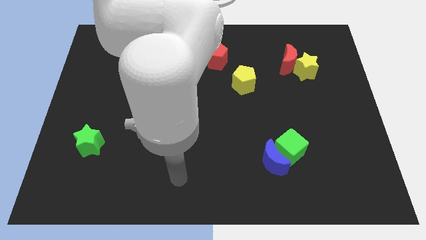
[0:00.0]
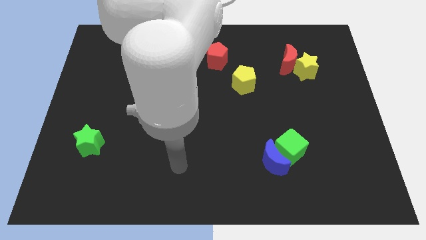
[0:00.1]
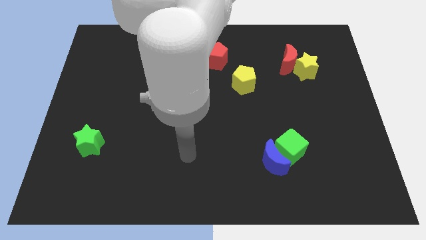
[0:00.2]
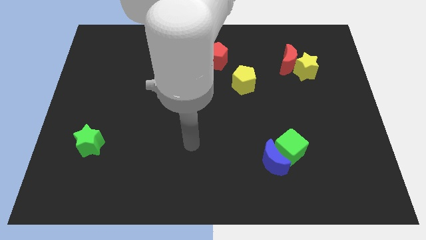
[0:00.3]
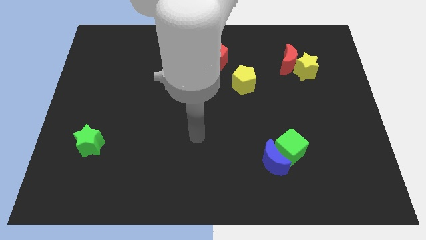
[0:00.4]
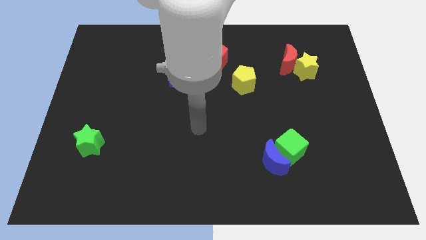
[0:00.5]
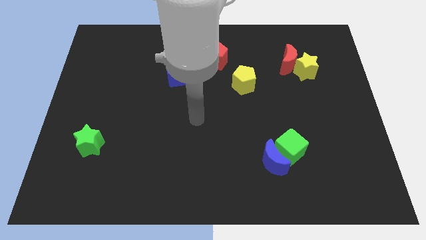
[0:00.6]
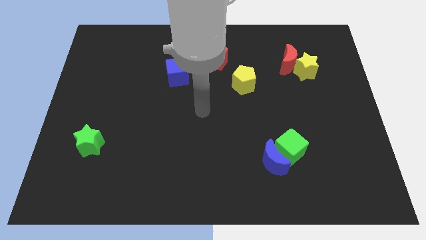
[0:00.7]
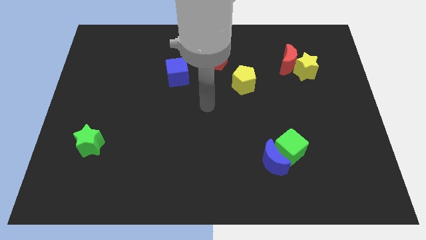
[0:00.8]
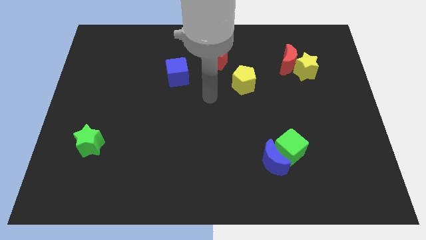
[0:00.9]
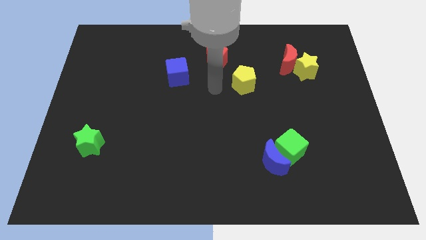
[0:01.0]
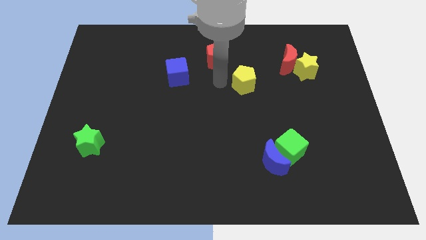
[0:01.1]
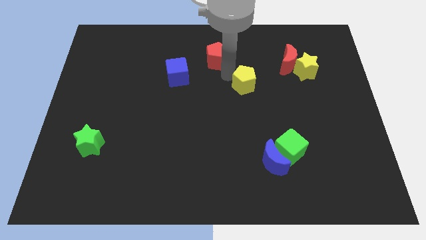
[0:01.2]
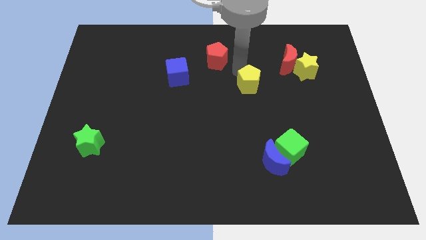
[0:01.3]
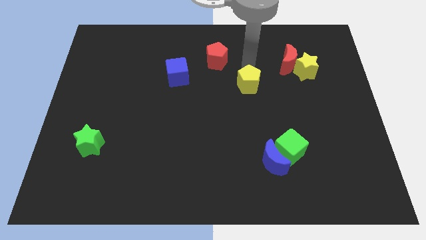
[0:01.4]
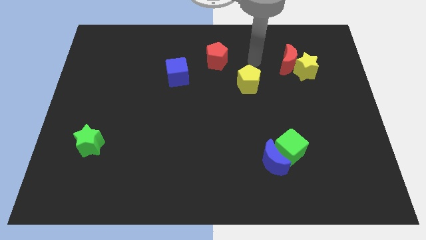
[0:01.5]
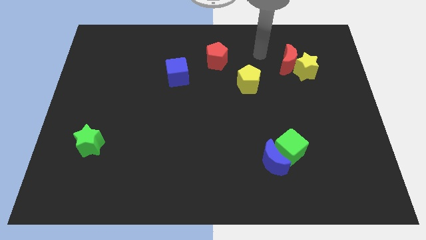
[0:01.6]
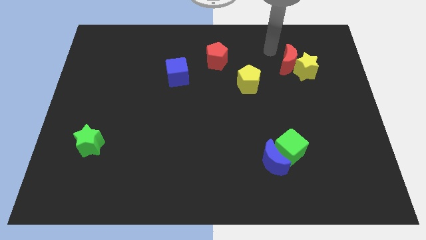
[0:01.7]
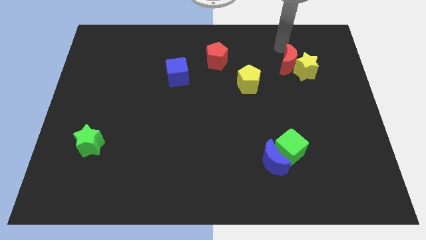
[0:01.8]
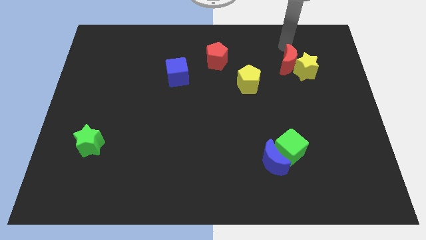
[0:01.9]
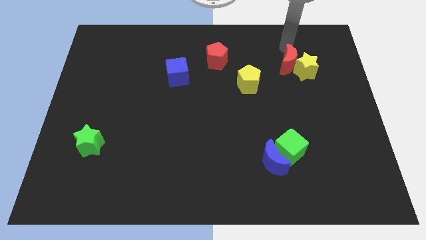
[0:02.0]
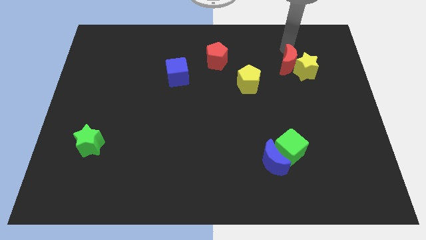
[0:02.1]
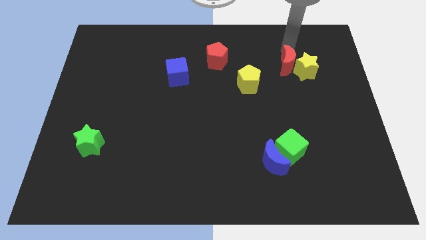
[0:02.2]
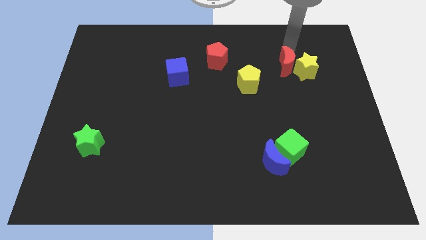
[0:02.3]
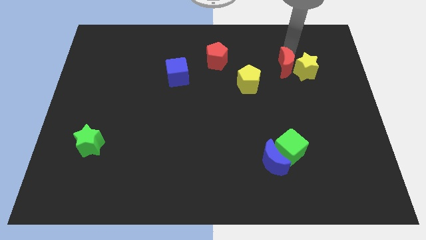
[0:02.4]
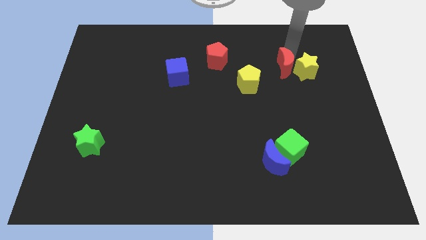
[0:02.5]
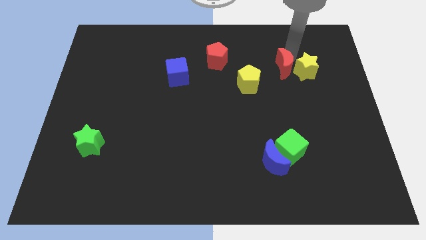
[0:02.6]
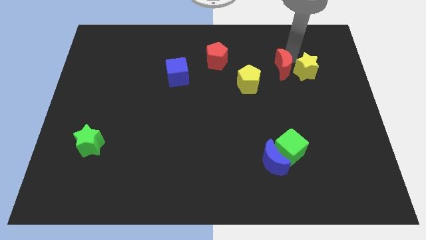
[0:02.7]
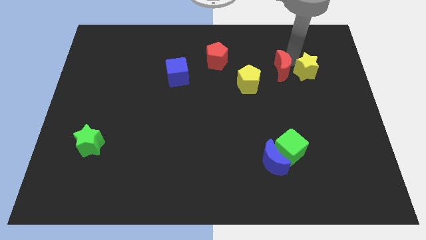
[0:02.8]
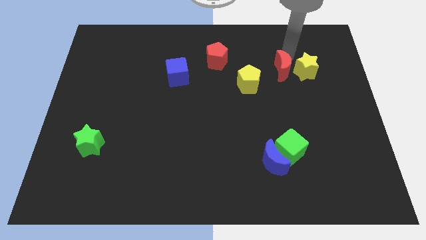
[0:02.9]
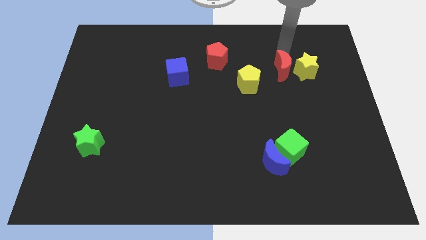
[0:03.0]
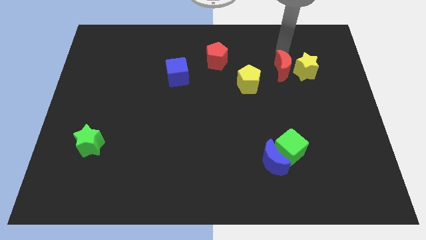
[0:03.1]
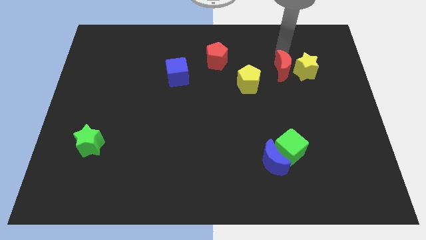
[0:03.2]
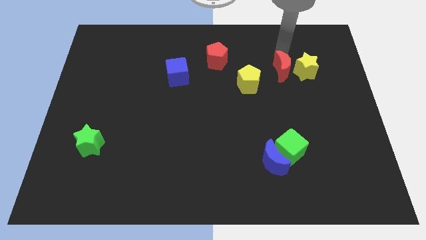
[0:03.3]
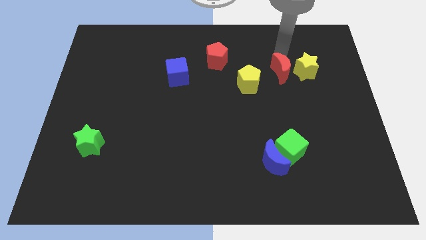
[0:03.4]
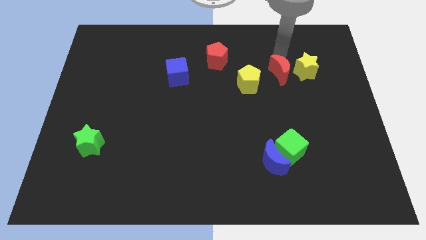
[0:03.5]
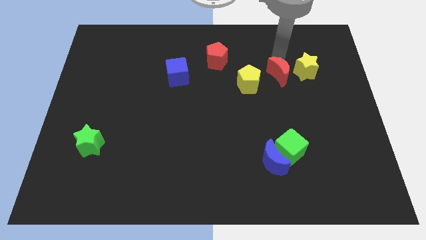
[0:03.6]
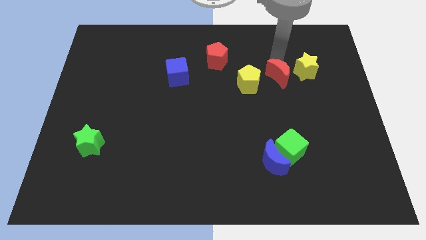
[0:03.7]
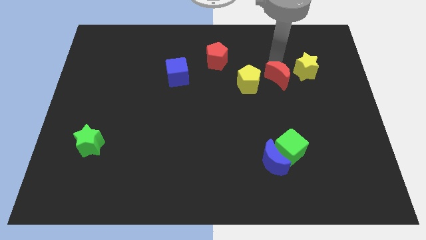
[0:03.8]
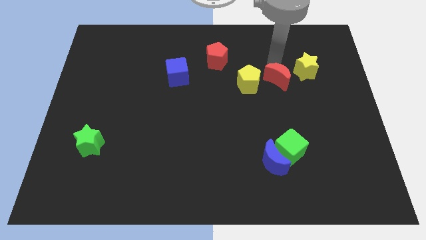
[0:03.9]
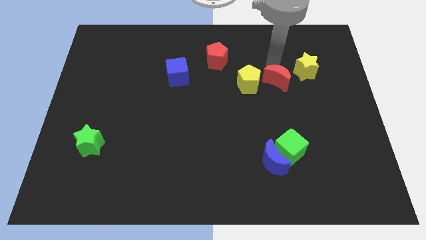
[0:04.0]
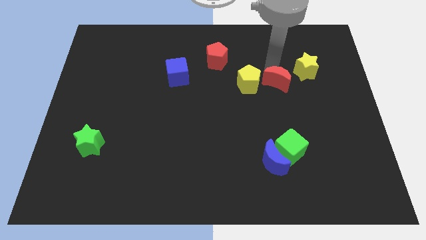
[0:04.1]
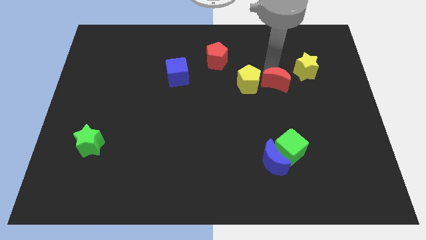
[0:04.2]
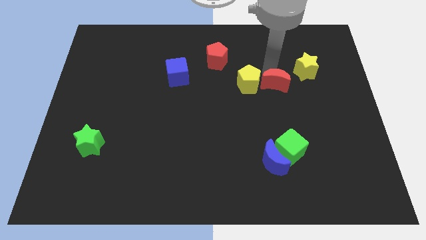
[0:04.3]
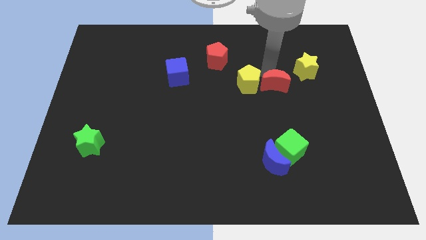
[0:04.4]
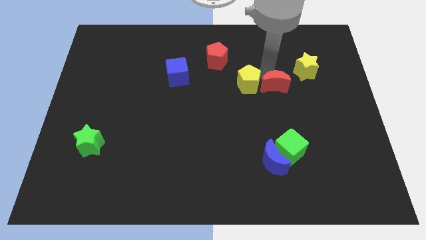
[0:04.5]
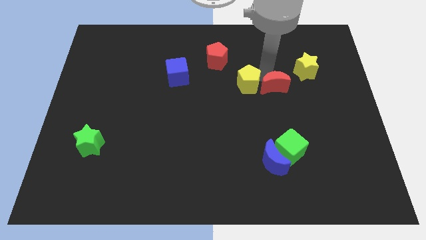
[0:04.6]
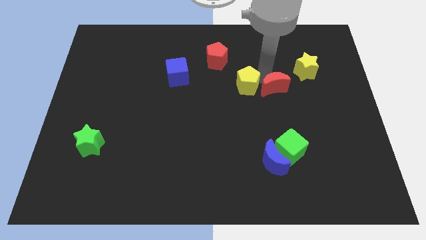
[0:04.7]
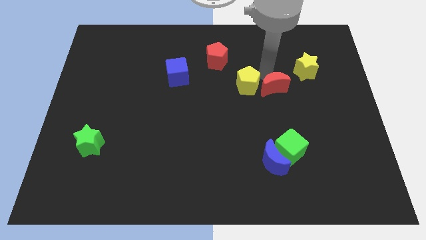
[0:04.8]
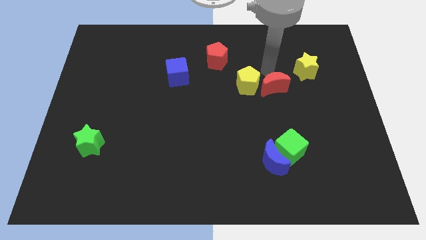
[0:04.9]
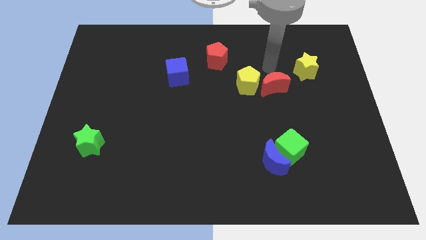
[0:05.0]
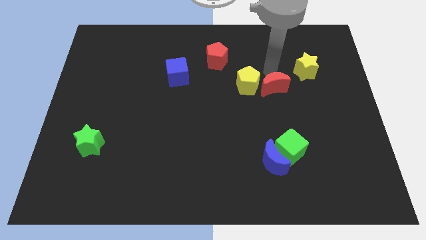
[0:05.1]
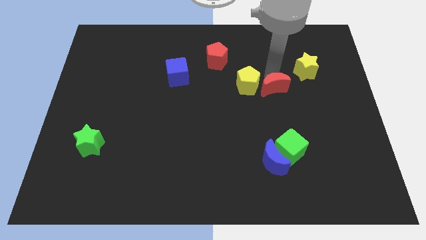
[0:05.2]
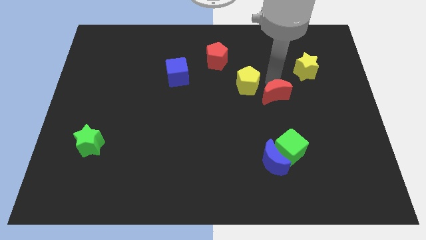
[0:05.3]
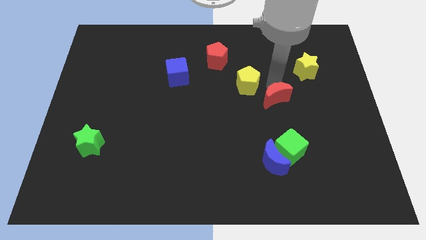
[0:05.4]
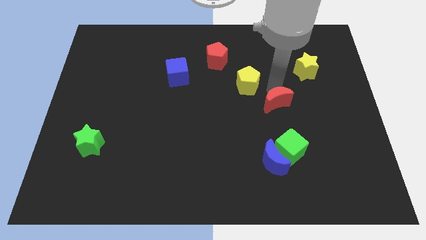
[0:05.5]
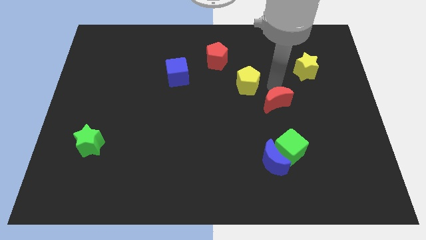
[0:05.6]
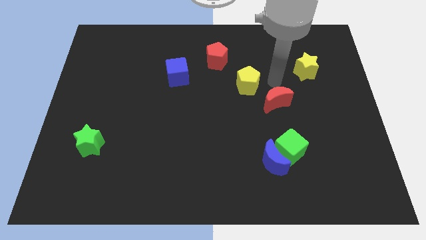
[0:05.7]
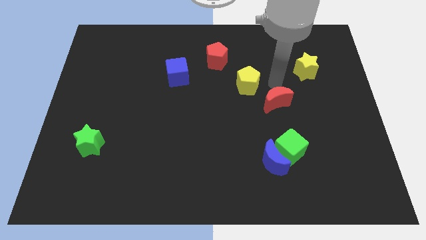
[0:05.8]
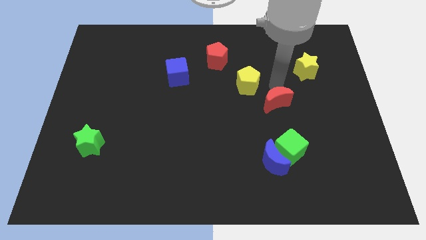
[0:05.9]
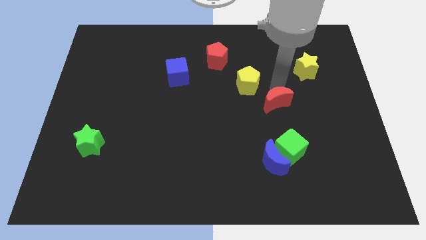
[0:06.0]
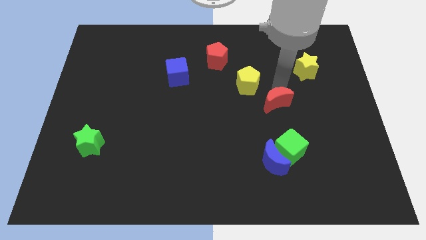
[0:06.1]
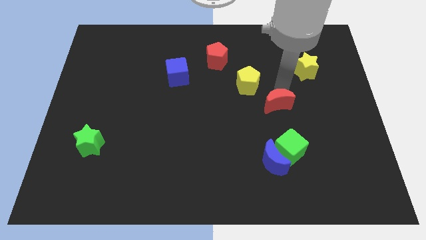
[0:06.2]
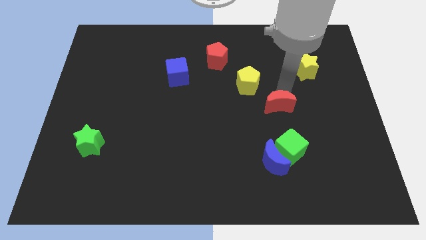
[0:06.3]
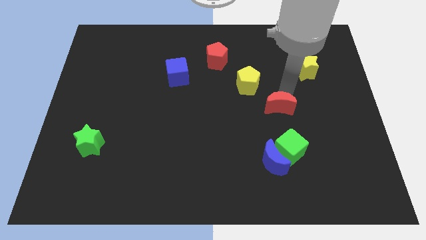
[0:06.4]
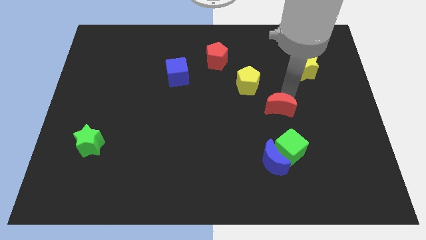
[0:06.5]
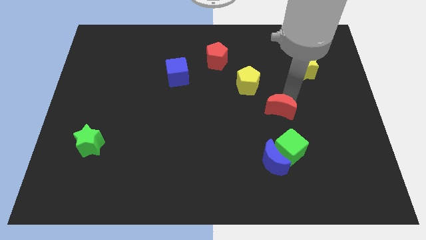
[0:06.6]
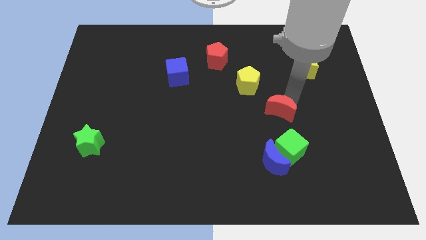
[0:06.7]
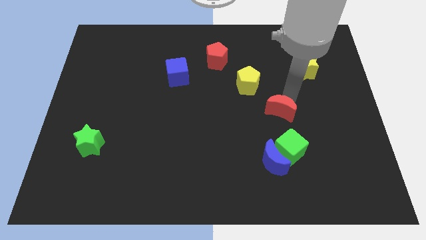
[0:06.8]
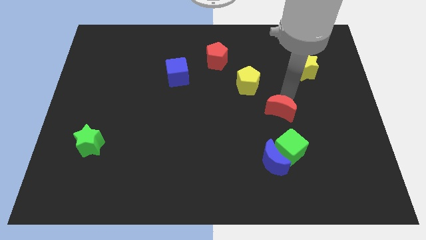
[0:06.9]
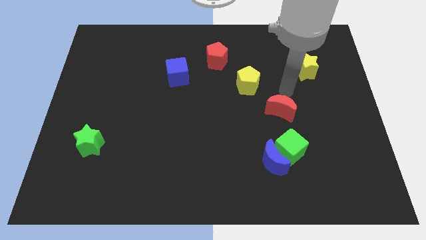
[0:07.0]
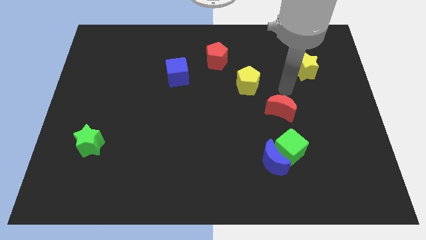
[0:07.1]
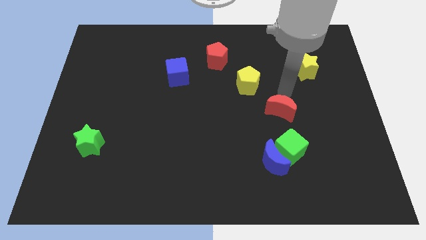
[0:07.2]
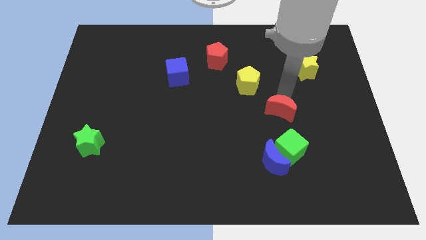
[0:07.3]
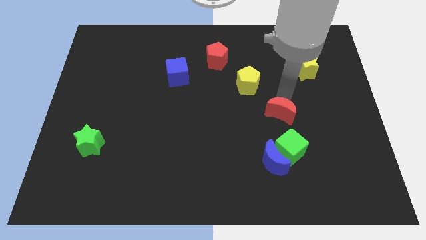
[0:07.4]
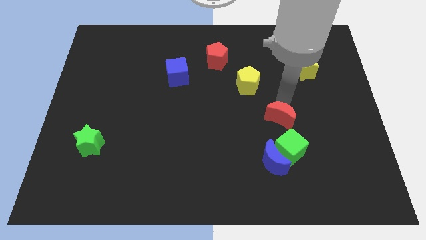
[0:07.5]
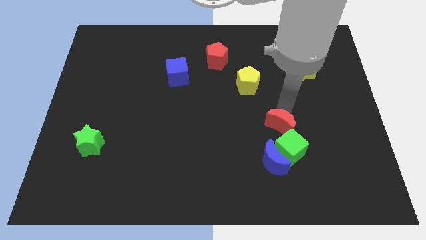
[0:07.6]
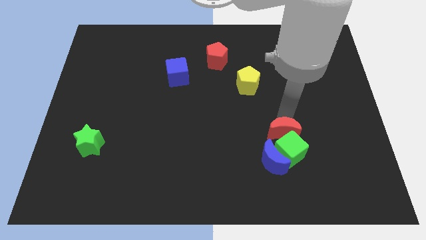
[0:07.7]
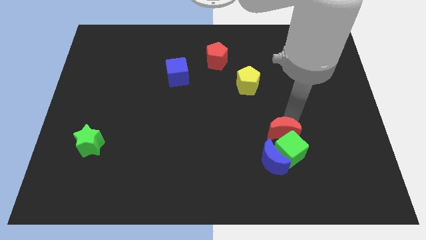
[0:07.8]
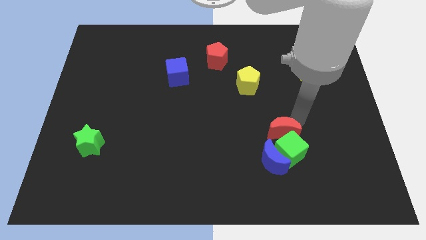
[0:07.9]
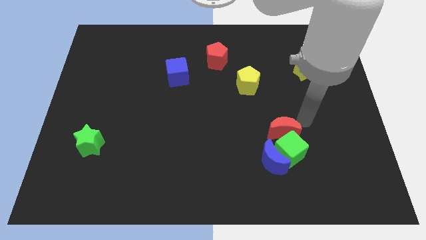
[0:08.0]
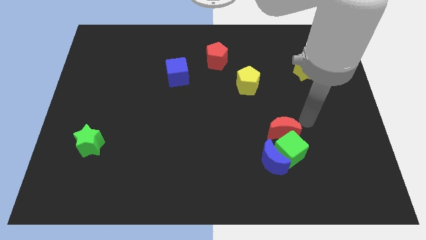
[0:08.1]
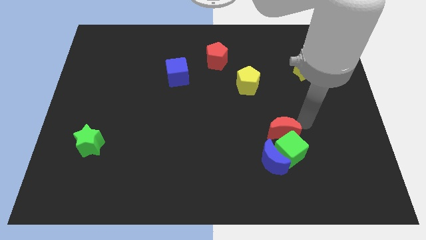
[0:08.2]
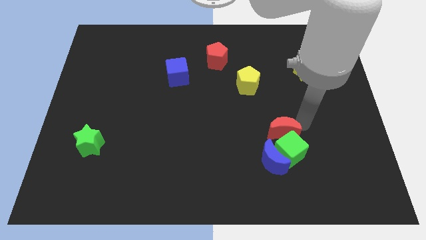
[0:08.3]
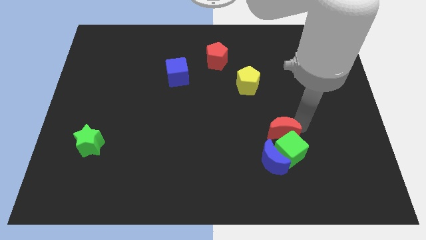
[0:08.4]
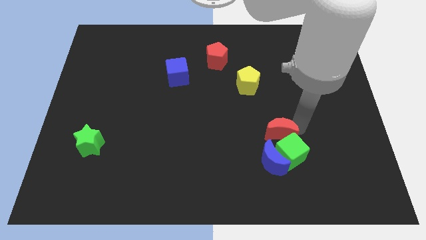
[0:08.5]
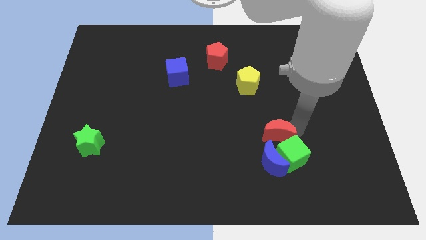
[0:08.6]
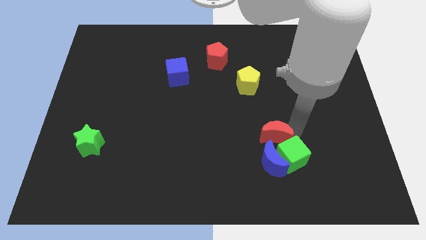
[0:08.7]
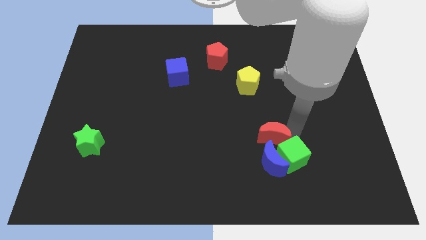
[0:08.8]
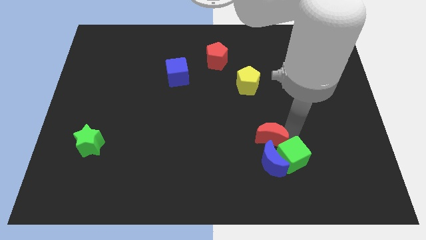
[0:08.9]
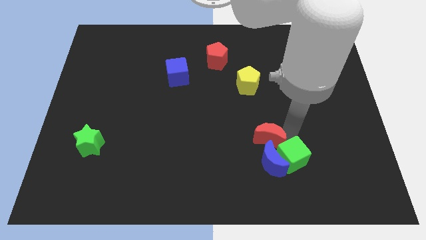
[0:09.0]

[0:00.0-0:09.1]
slide the red moon close to the blue moon
